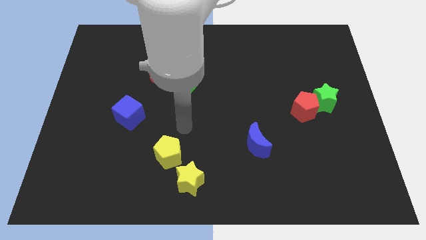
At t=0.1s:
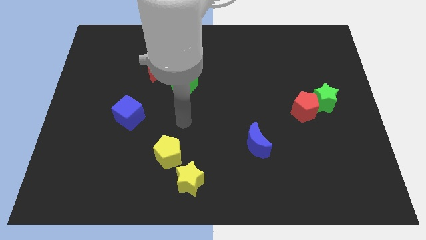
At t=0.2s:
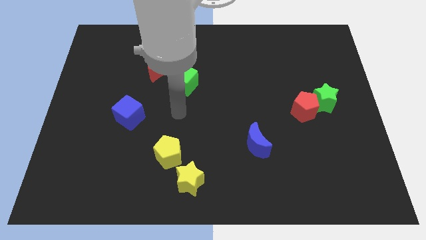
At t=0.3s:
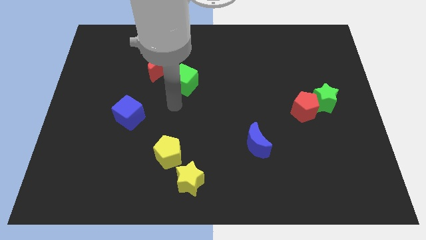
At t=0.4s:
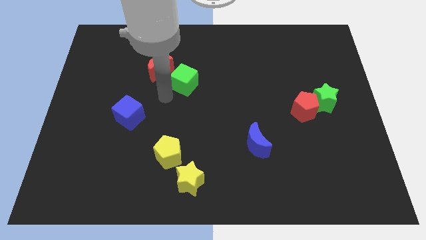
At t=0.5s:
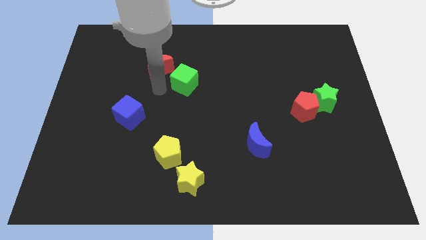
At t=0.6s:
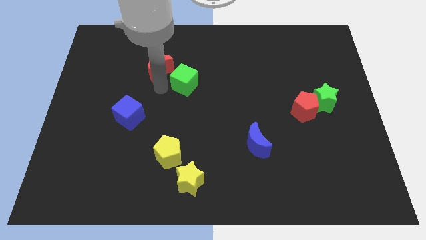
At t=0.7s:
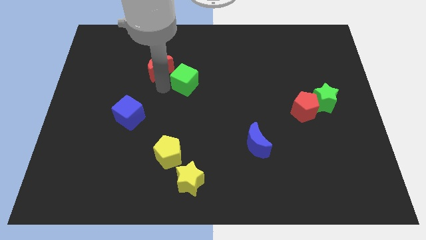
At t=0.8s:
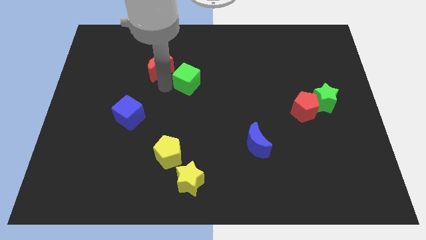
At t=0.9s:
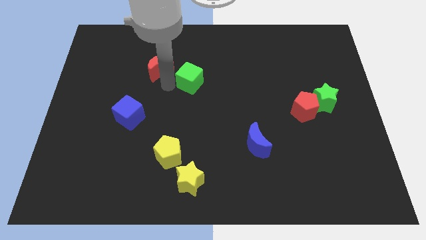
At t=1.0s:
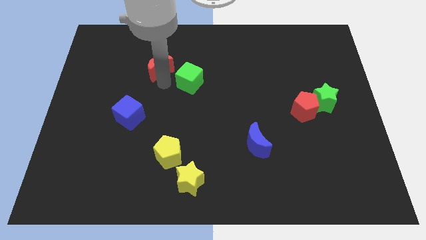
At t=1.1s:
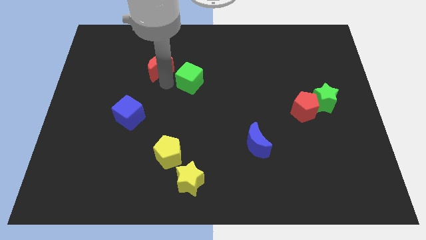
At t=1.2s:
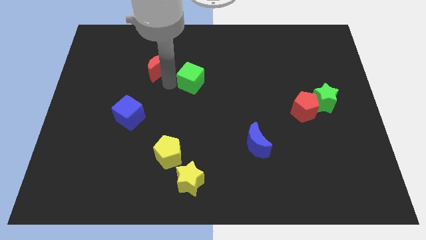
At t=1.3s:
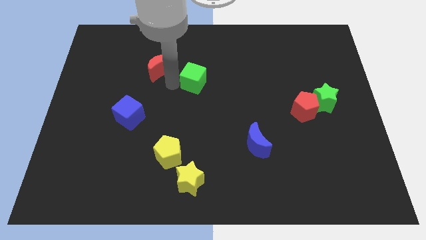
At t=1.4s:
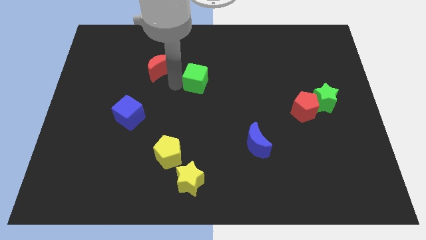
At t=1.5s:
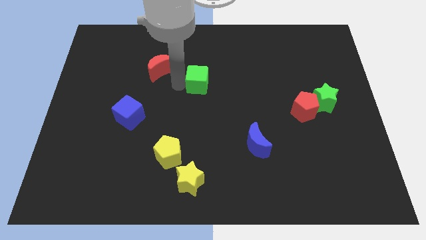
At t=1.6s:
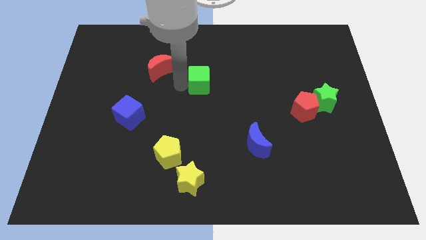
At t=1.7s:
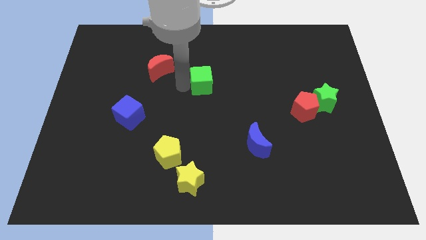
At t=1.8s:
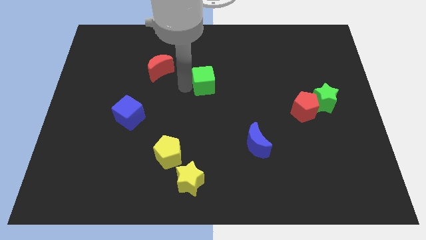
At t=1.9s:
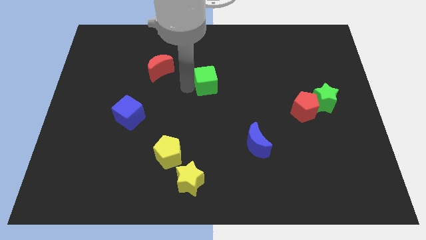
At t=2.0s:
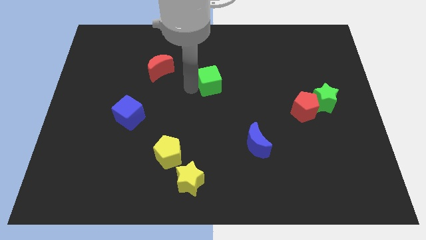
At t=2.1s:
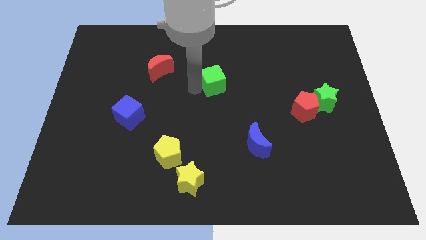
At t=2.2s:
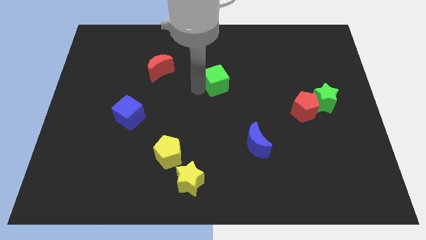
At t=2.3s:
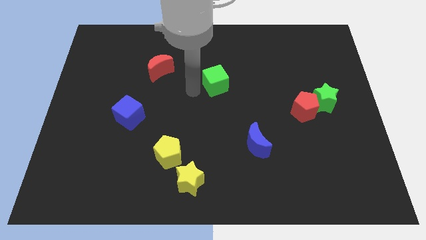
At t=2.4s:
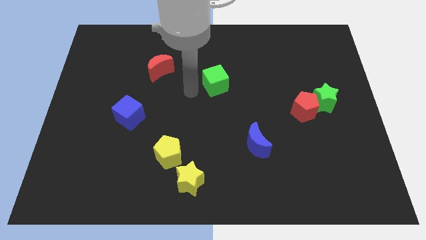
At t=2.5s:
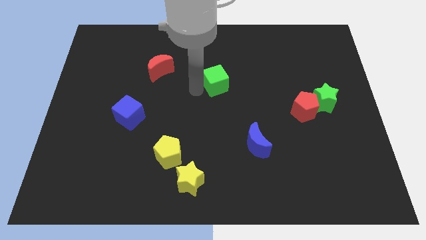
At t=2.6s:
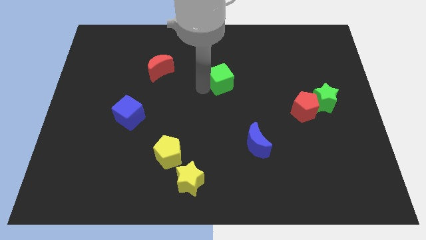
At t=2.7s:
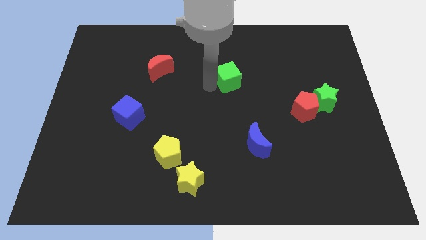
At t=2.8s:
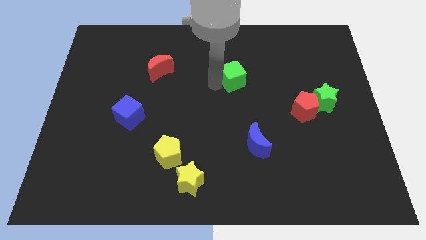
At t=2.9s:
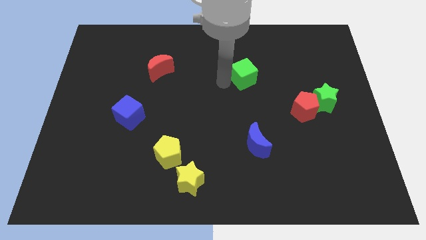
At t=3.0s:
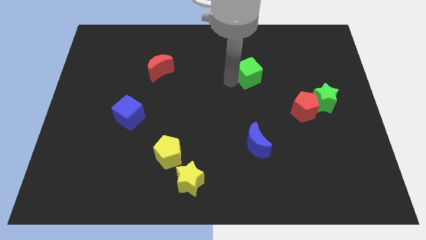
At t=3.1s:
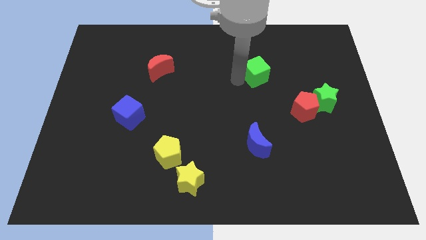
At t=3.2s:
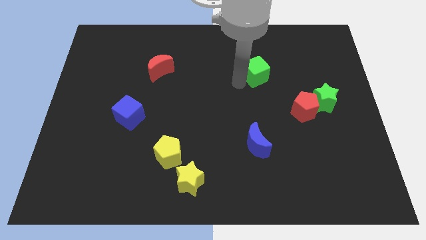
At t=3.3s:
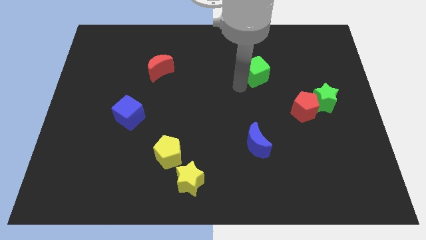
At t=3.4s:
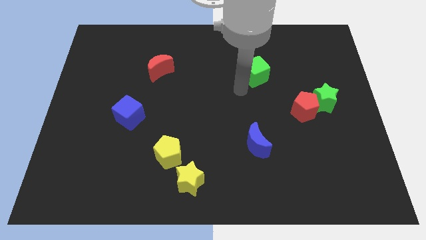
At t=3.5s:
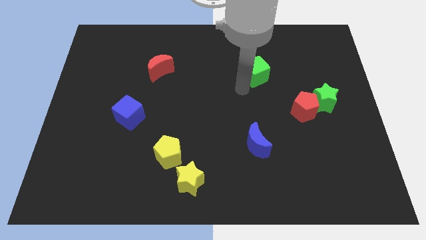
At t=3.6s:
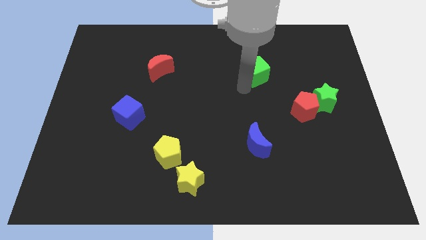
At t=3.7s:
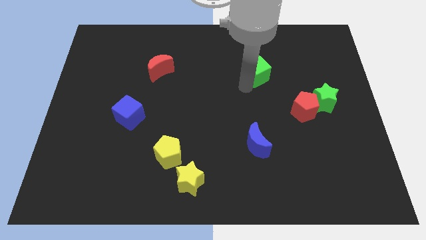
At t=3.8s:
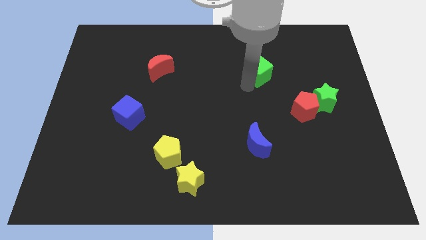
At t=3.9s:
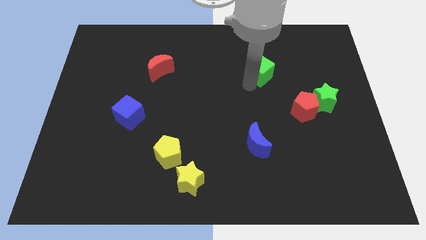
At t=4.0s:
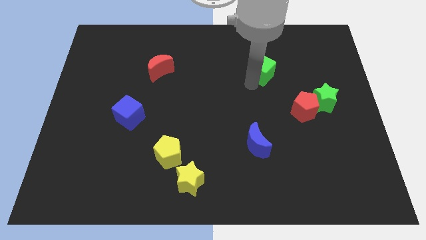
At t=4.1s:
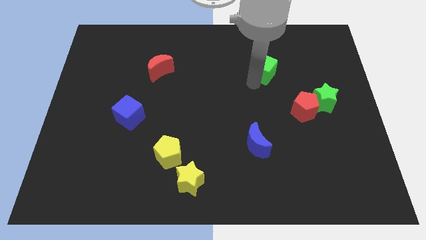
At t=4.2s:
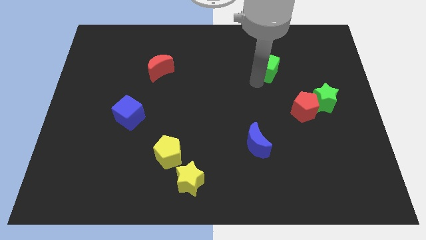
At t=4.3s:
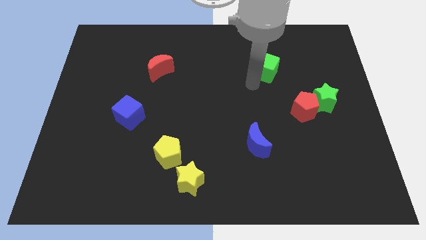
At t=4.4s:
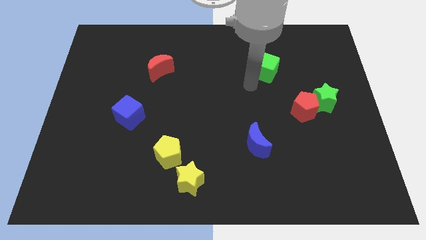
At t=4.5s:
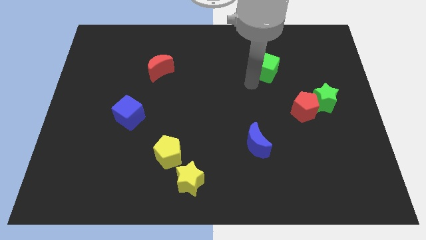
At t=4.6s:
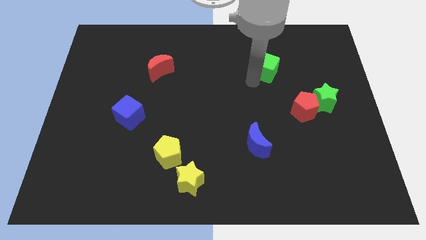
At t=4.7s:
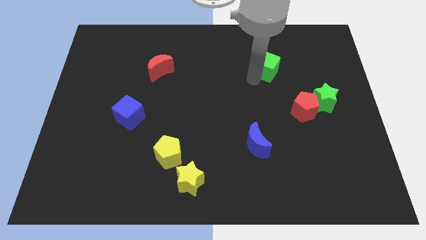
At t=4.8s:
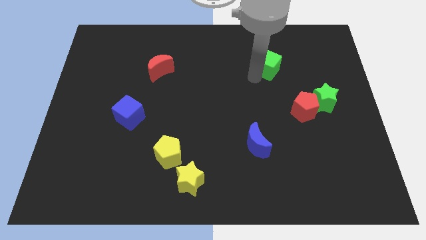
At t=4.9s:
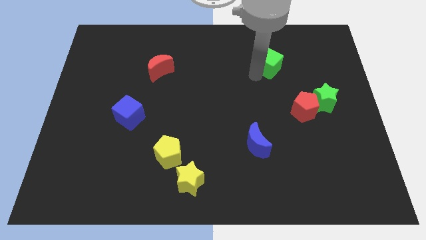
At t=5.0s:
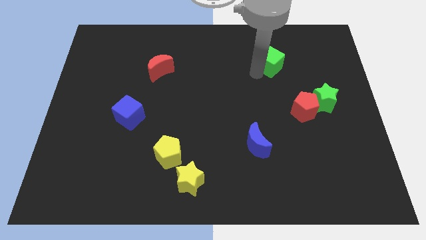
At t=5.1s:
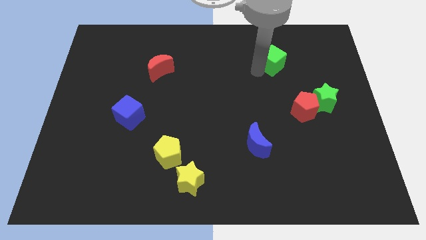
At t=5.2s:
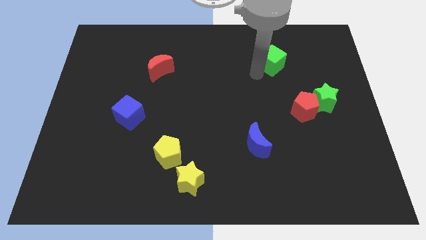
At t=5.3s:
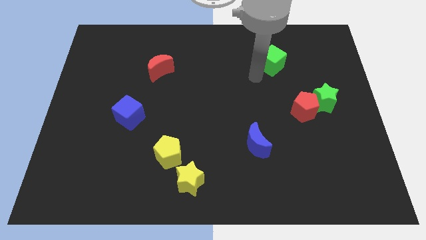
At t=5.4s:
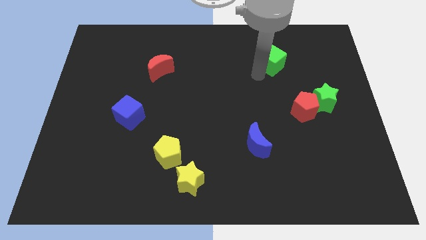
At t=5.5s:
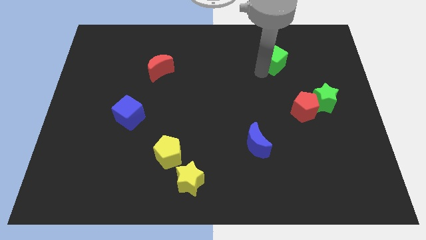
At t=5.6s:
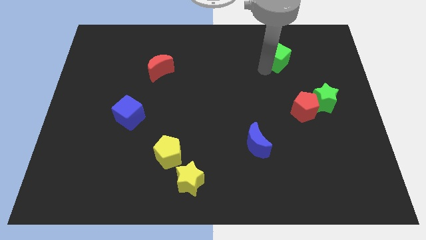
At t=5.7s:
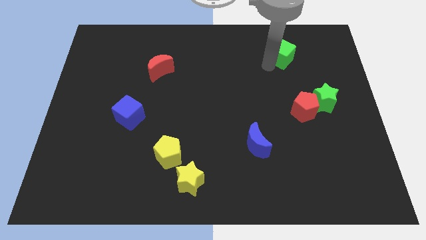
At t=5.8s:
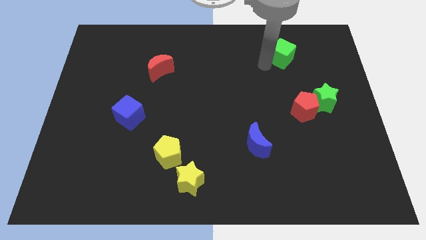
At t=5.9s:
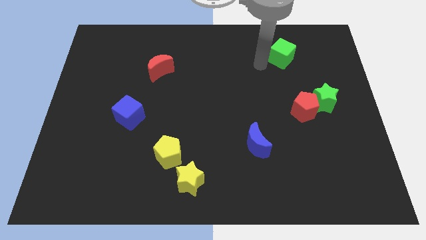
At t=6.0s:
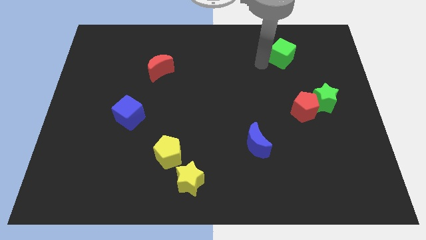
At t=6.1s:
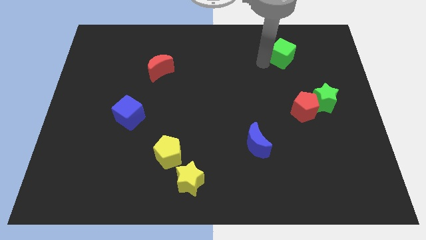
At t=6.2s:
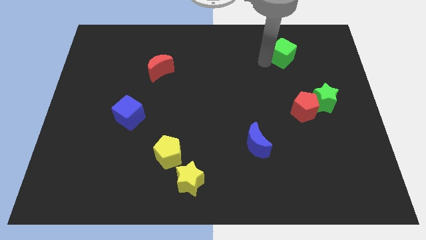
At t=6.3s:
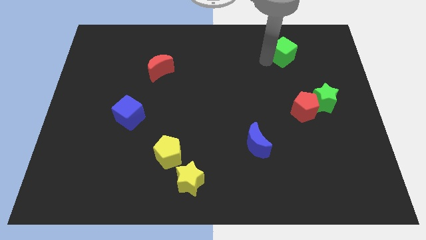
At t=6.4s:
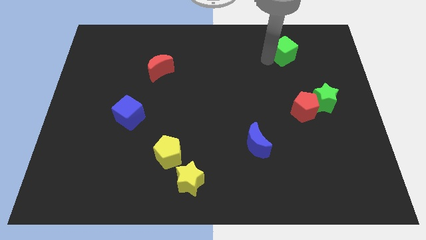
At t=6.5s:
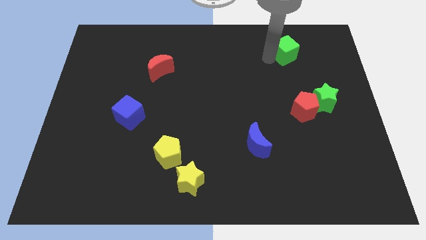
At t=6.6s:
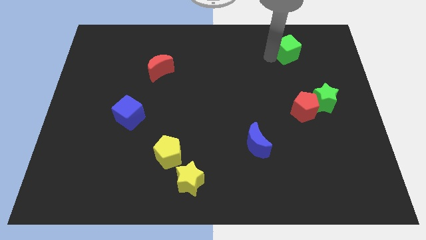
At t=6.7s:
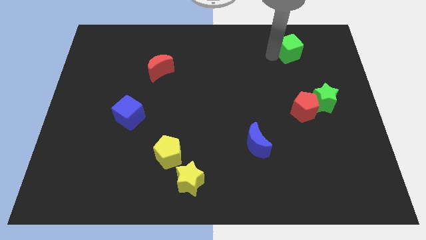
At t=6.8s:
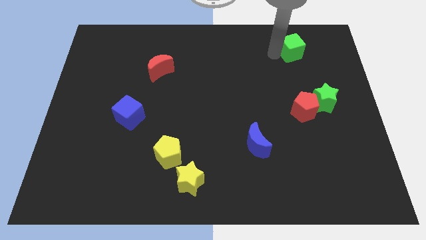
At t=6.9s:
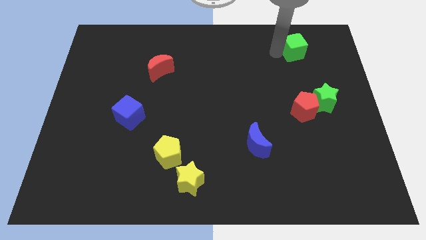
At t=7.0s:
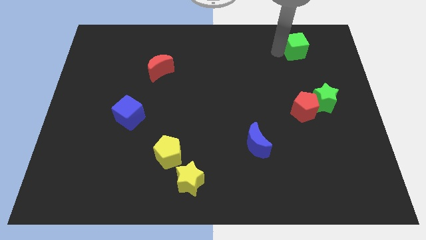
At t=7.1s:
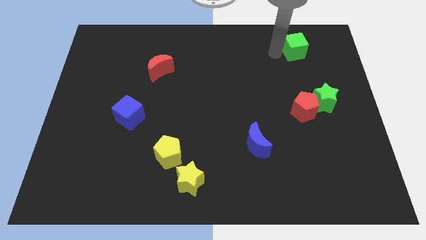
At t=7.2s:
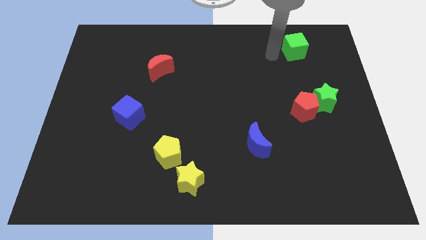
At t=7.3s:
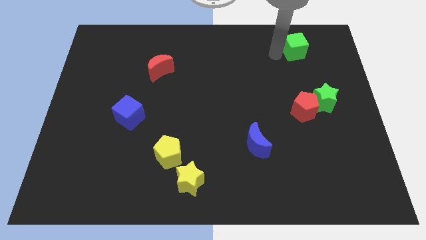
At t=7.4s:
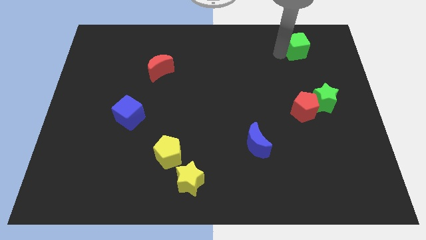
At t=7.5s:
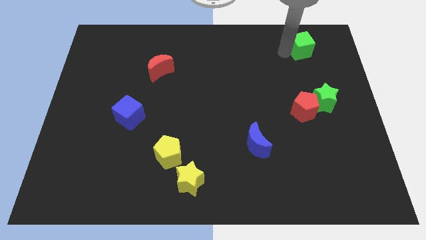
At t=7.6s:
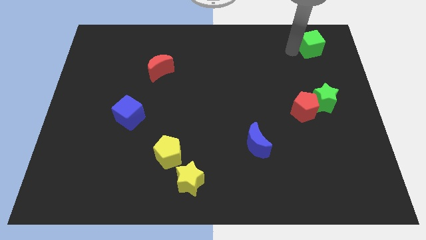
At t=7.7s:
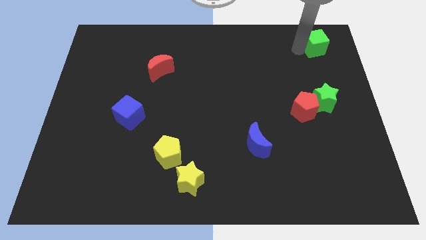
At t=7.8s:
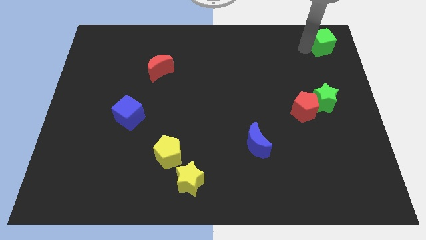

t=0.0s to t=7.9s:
move the green cube to the top right
